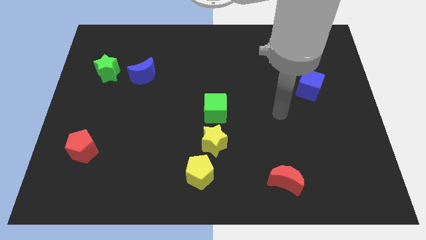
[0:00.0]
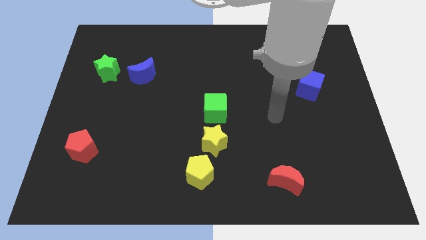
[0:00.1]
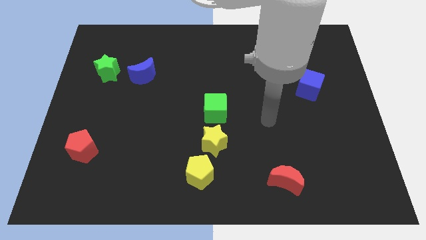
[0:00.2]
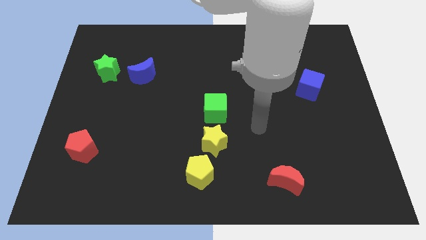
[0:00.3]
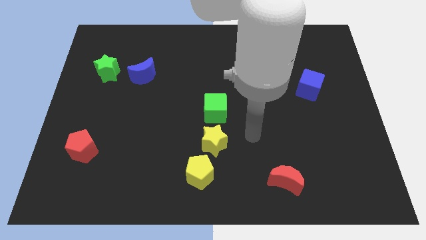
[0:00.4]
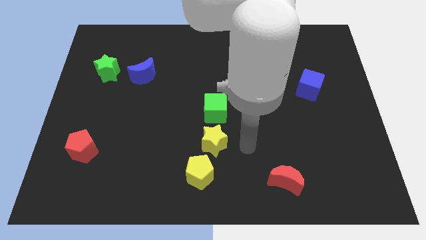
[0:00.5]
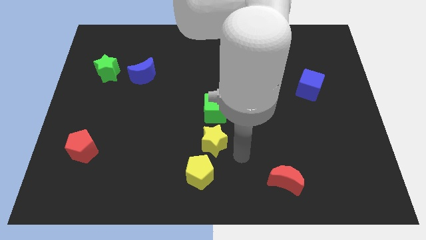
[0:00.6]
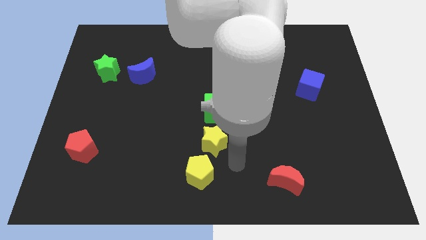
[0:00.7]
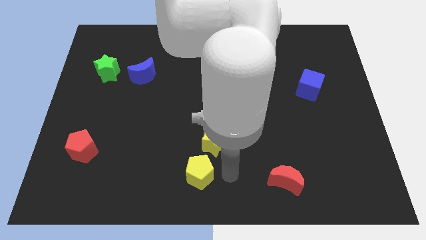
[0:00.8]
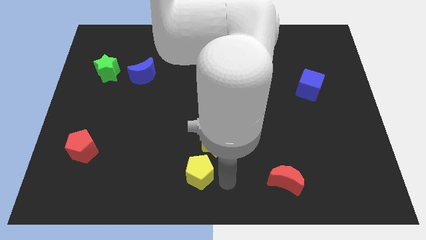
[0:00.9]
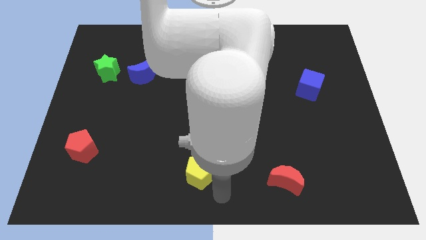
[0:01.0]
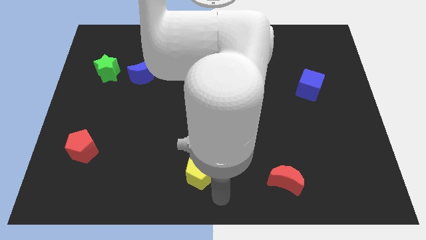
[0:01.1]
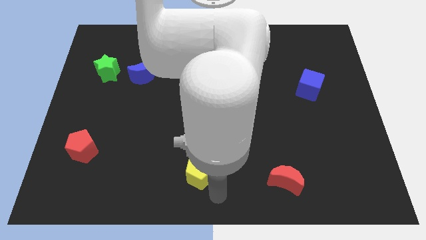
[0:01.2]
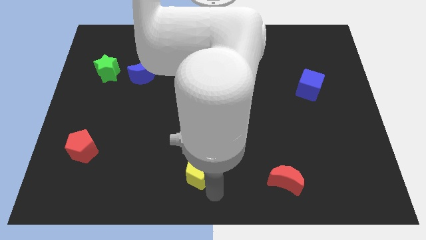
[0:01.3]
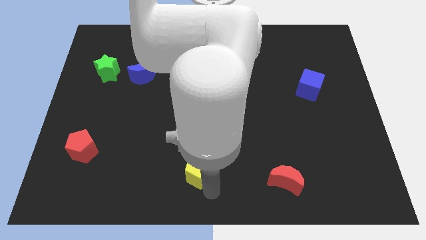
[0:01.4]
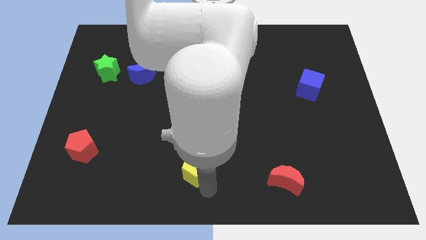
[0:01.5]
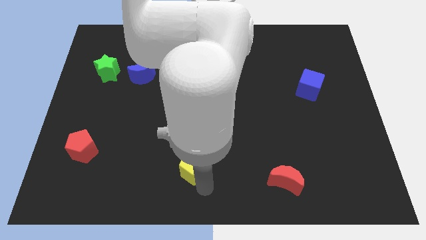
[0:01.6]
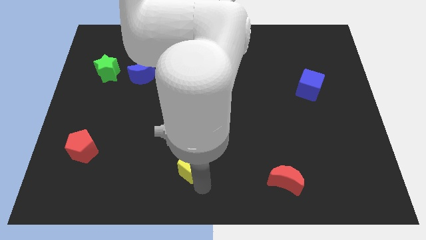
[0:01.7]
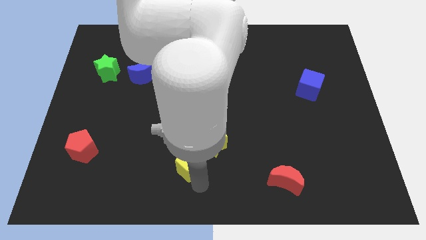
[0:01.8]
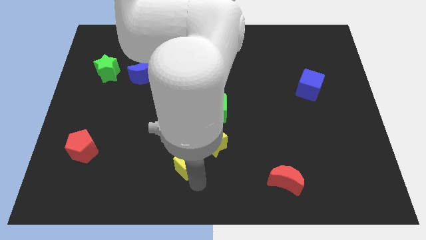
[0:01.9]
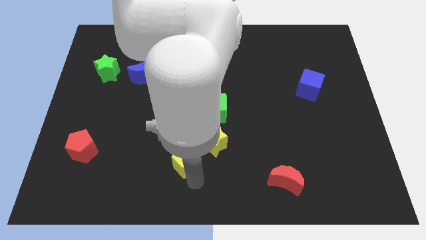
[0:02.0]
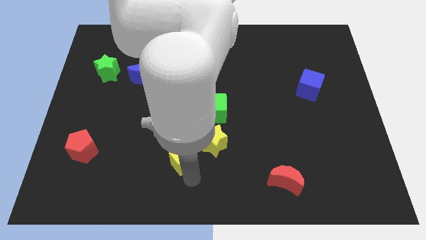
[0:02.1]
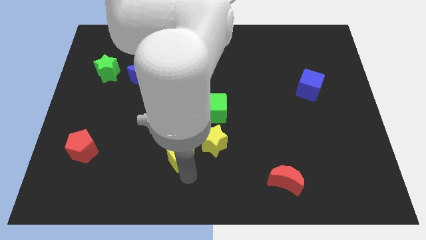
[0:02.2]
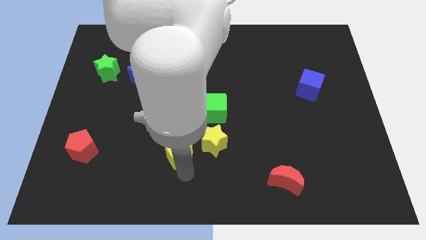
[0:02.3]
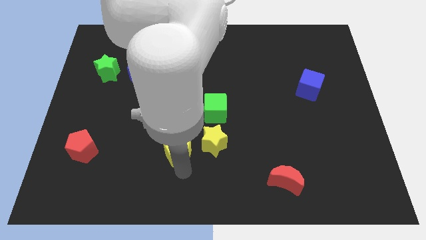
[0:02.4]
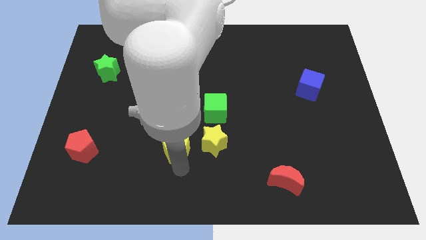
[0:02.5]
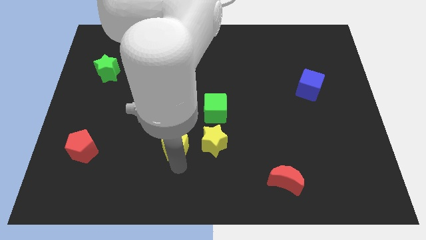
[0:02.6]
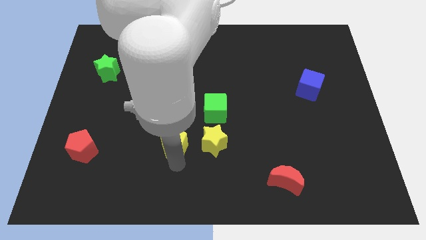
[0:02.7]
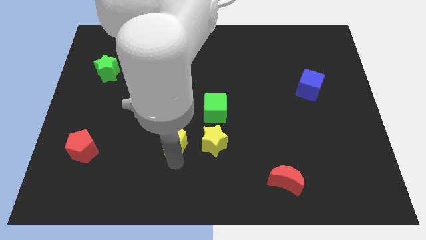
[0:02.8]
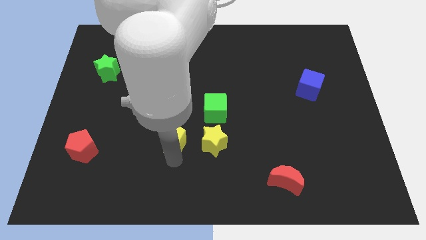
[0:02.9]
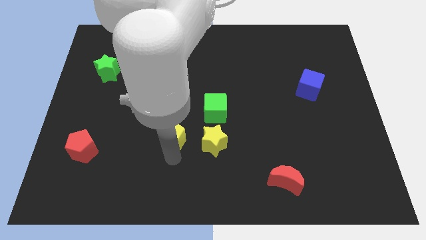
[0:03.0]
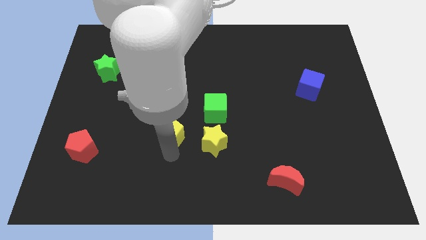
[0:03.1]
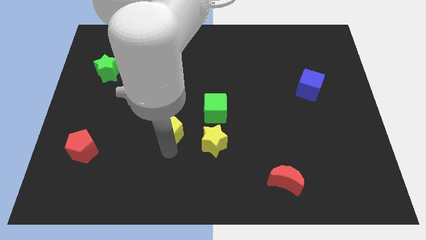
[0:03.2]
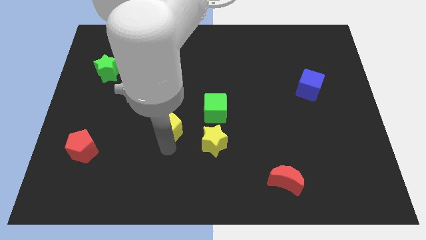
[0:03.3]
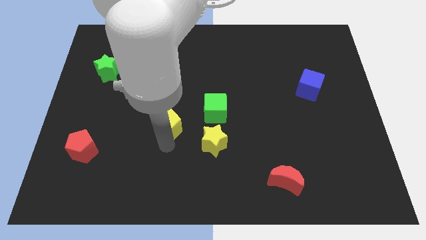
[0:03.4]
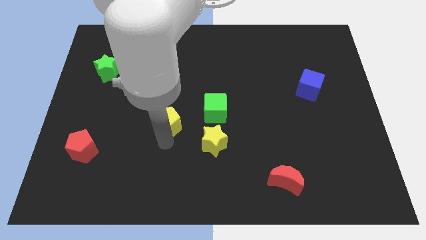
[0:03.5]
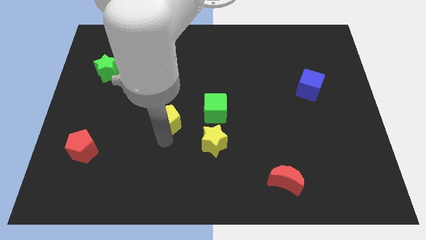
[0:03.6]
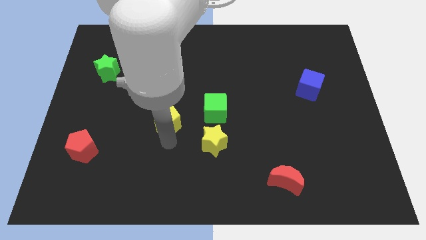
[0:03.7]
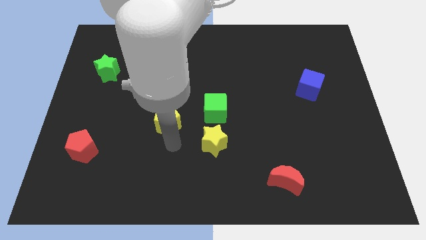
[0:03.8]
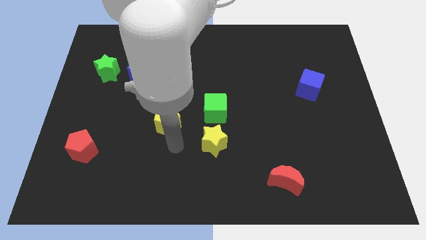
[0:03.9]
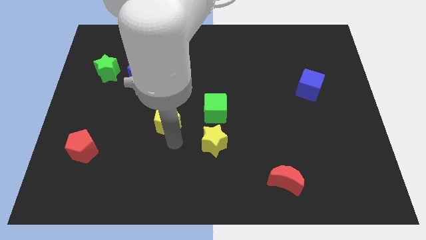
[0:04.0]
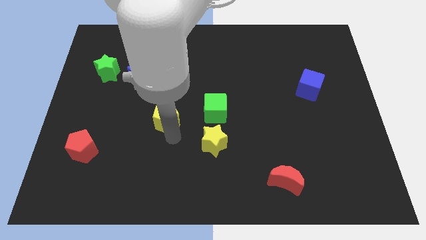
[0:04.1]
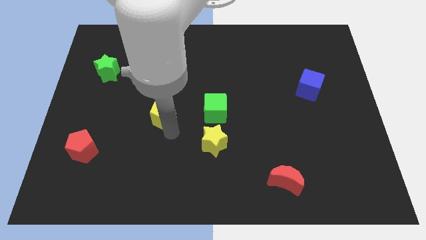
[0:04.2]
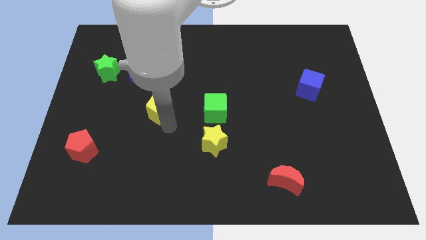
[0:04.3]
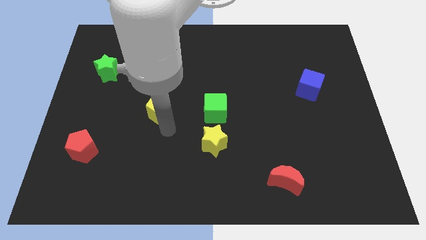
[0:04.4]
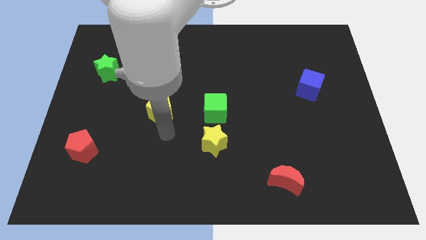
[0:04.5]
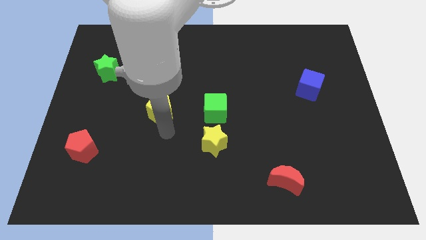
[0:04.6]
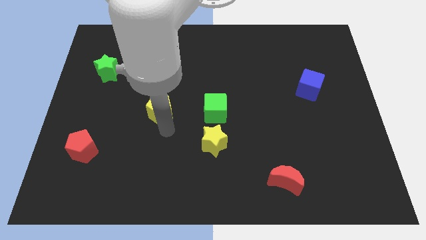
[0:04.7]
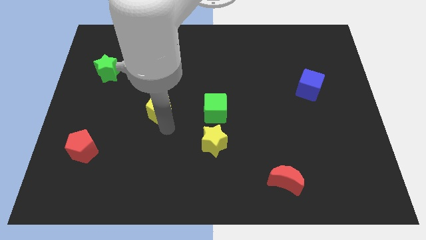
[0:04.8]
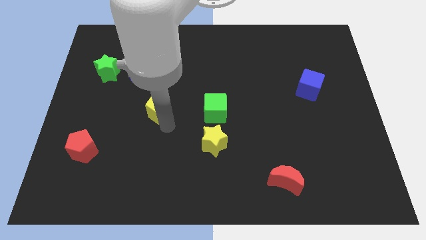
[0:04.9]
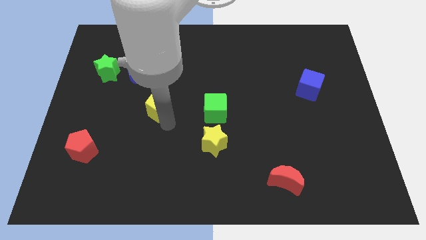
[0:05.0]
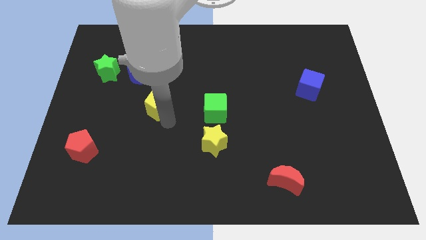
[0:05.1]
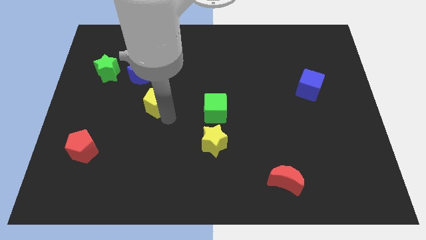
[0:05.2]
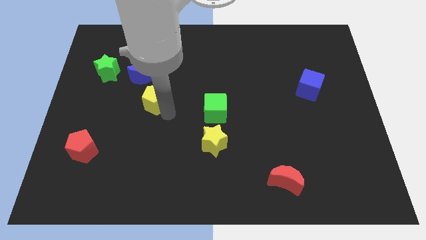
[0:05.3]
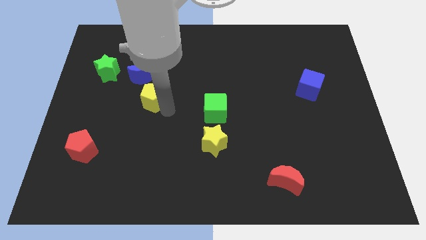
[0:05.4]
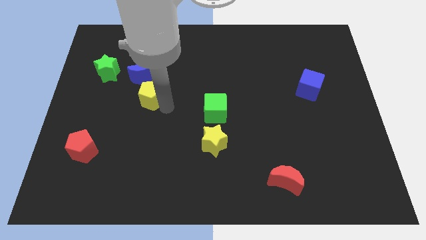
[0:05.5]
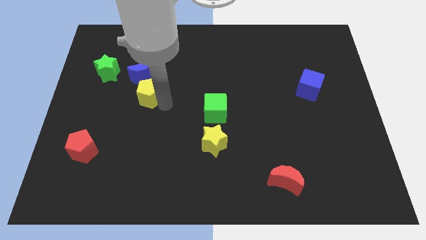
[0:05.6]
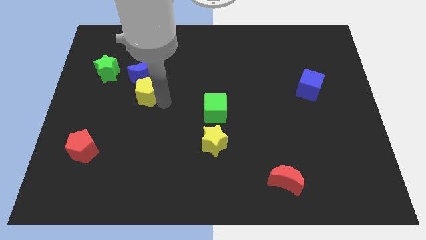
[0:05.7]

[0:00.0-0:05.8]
slide the yellow pentagon next to the blue moon
